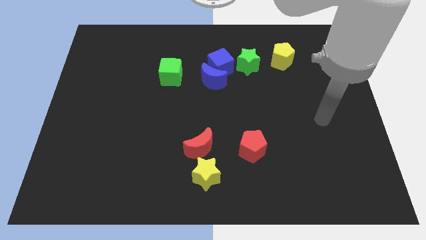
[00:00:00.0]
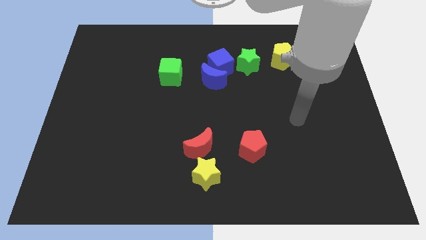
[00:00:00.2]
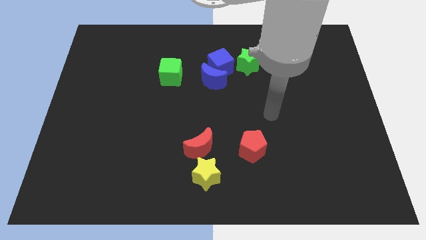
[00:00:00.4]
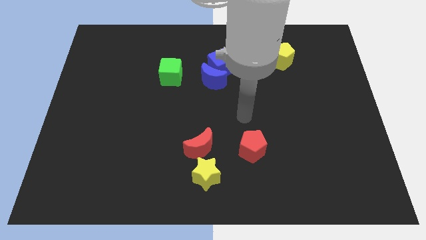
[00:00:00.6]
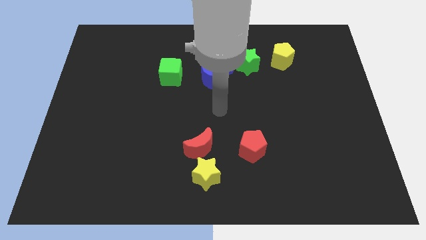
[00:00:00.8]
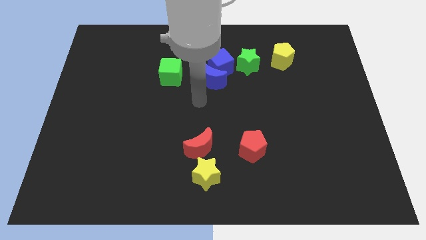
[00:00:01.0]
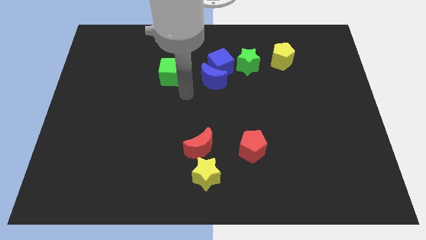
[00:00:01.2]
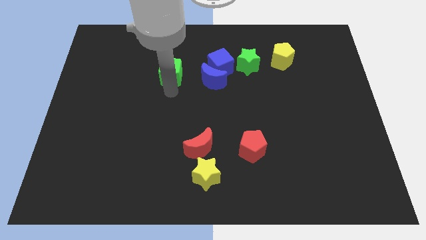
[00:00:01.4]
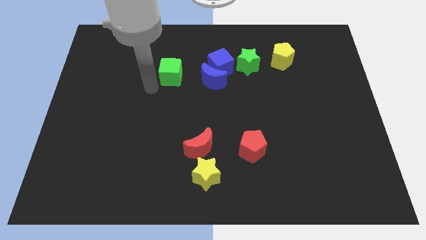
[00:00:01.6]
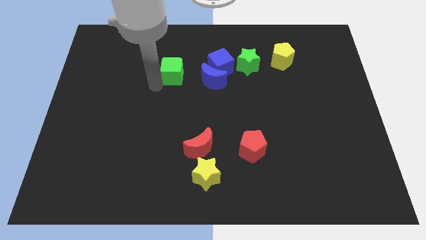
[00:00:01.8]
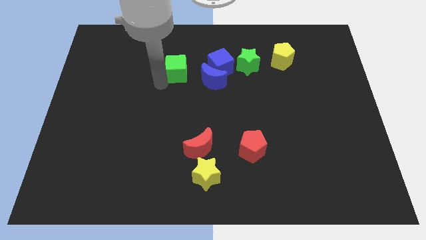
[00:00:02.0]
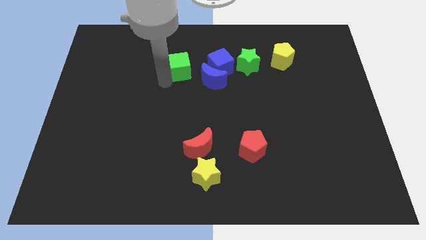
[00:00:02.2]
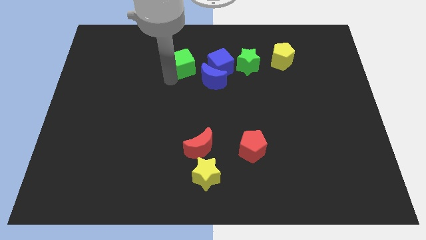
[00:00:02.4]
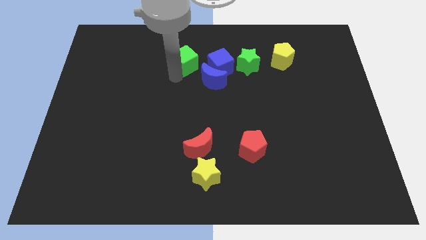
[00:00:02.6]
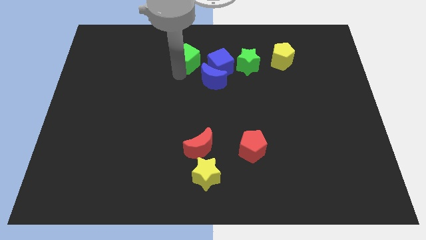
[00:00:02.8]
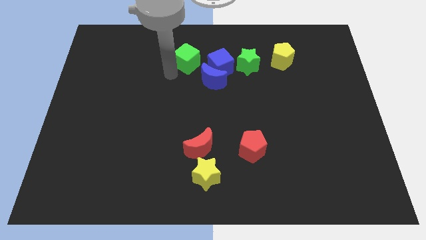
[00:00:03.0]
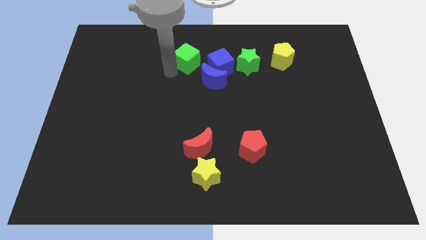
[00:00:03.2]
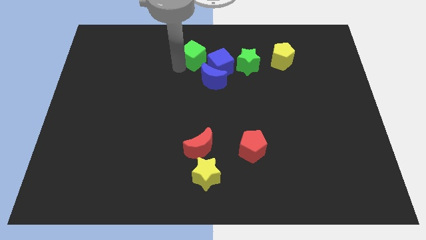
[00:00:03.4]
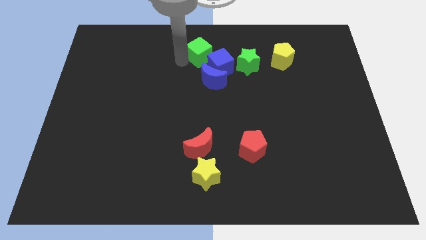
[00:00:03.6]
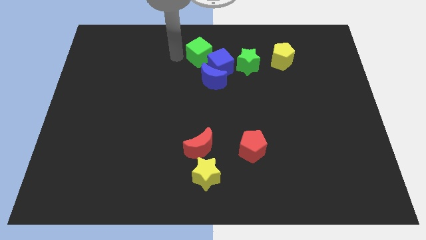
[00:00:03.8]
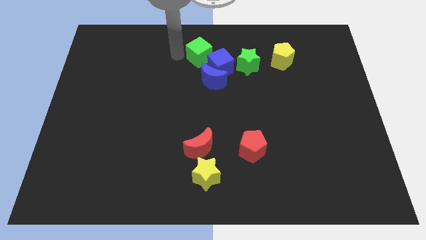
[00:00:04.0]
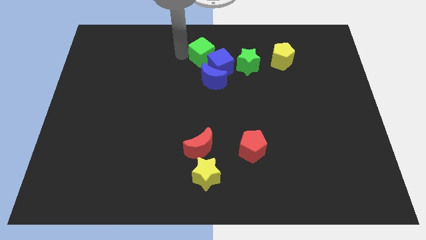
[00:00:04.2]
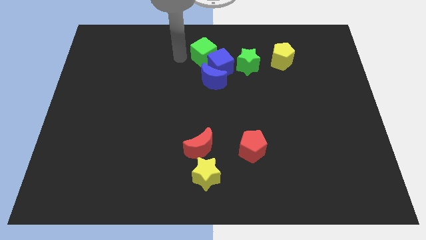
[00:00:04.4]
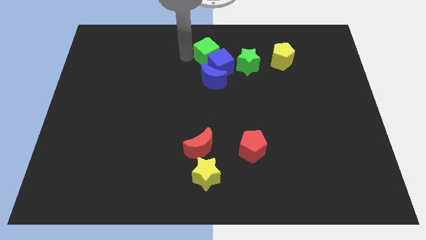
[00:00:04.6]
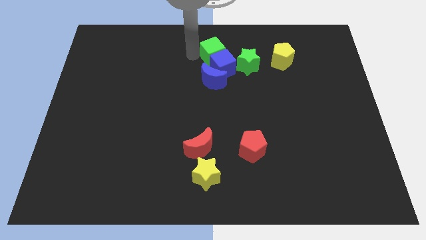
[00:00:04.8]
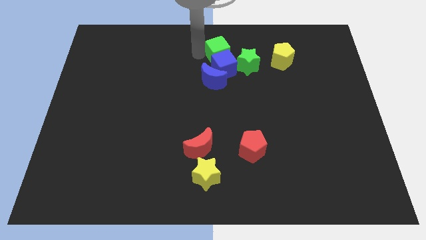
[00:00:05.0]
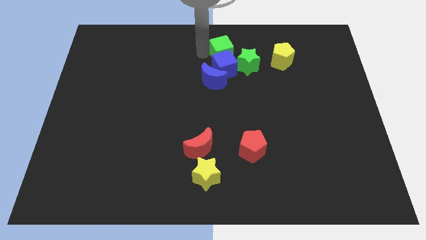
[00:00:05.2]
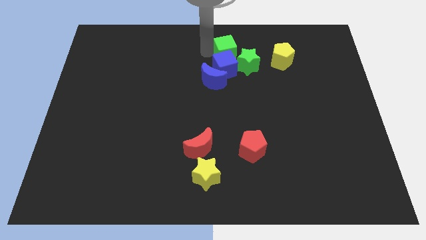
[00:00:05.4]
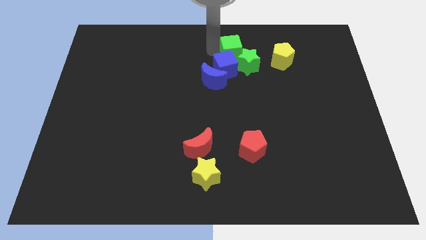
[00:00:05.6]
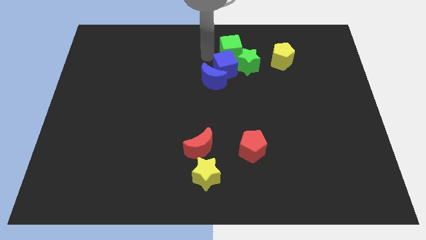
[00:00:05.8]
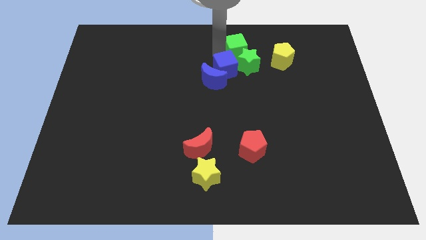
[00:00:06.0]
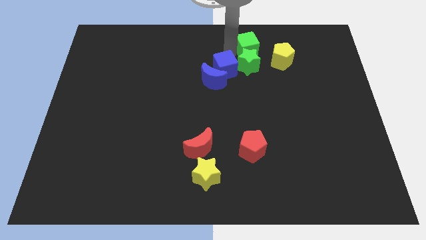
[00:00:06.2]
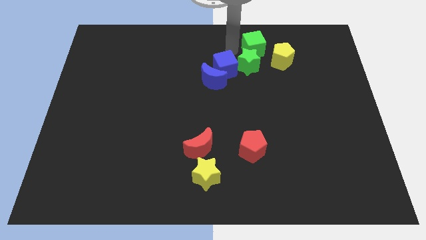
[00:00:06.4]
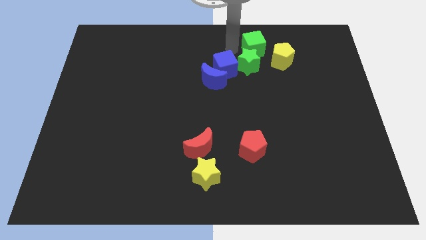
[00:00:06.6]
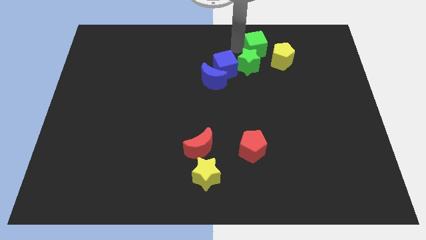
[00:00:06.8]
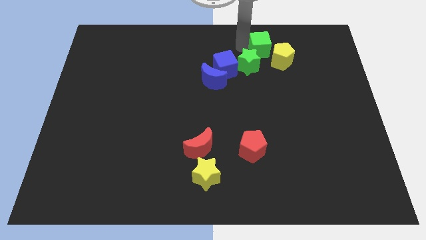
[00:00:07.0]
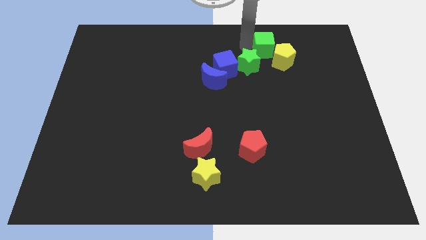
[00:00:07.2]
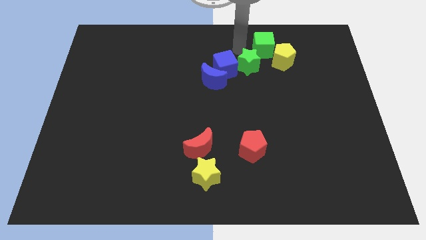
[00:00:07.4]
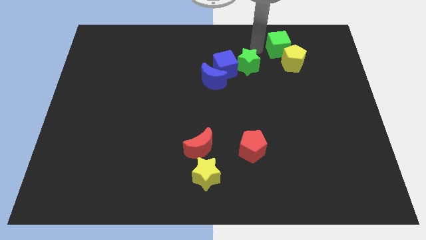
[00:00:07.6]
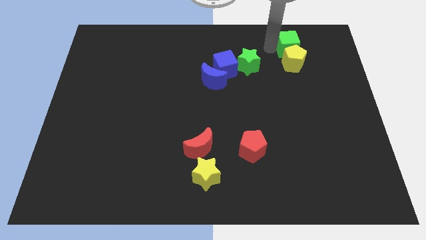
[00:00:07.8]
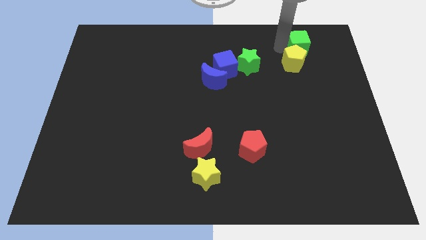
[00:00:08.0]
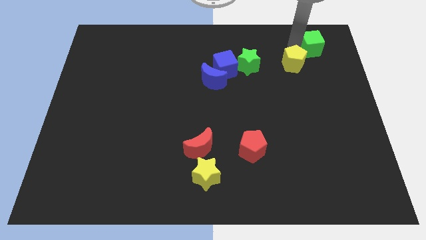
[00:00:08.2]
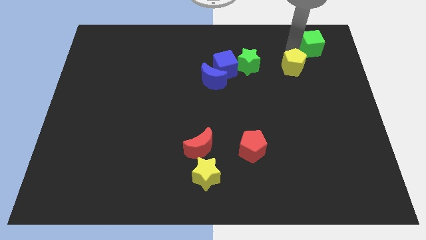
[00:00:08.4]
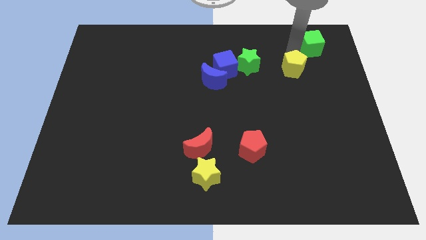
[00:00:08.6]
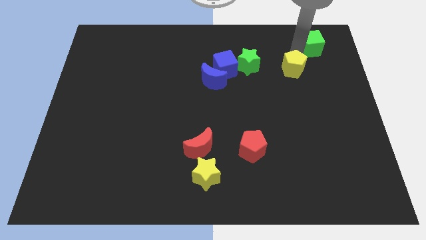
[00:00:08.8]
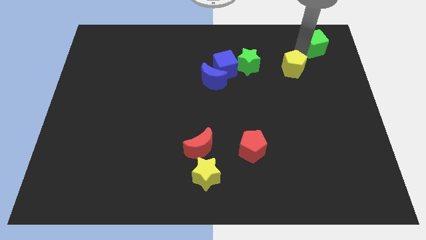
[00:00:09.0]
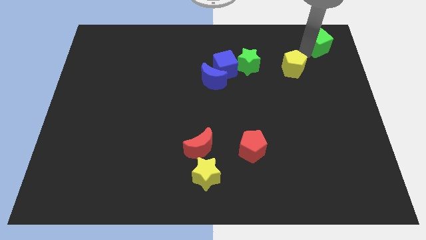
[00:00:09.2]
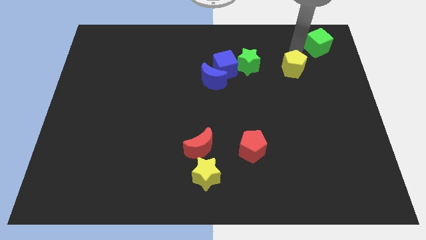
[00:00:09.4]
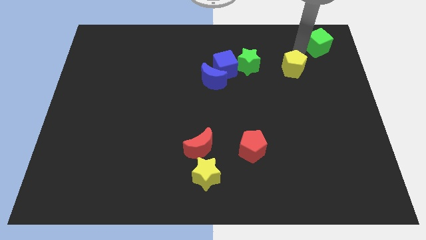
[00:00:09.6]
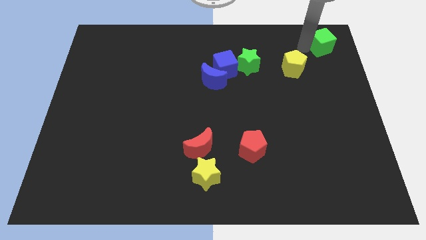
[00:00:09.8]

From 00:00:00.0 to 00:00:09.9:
slide the green cube to the top right

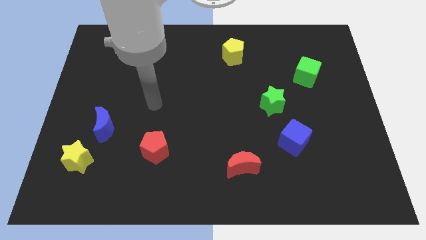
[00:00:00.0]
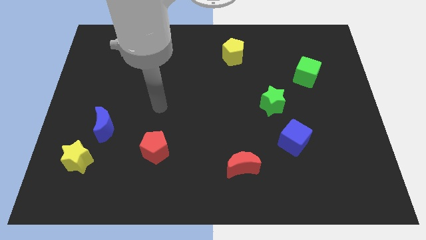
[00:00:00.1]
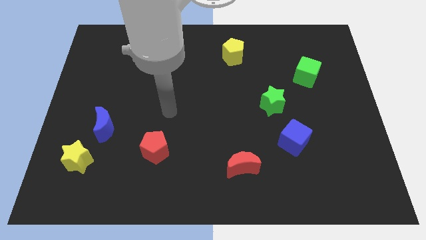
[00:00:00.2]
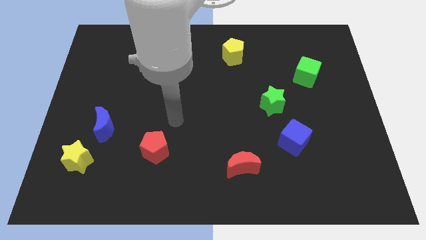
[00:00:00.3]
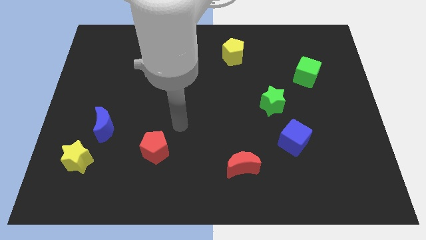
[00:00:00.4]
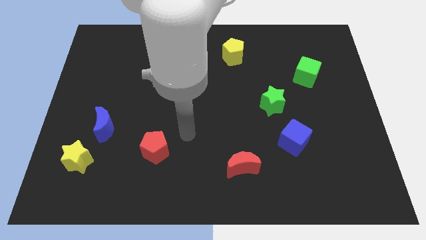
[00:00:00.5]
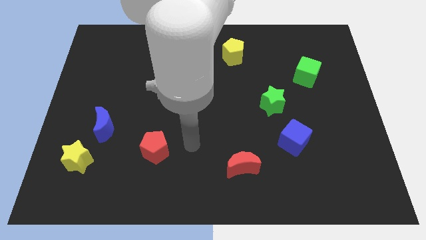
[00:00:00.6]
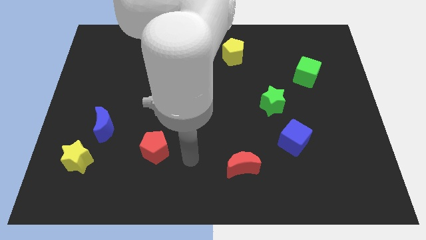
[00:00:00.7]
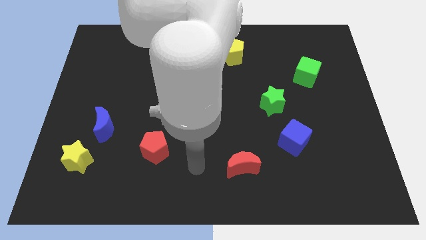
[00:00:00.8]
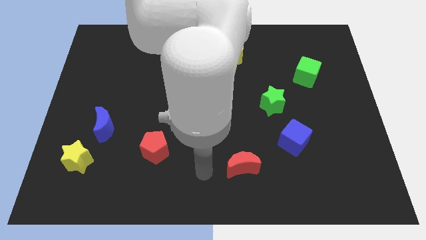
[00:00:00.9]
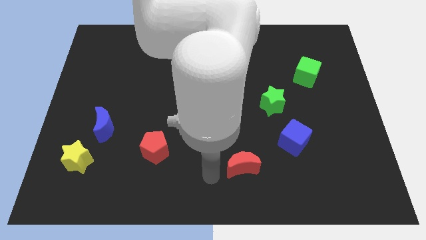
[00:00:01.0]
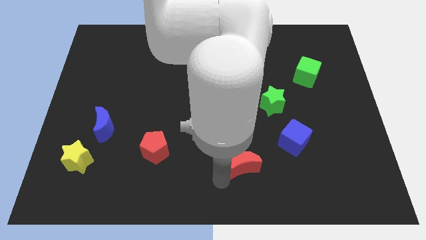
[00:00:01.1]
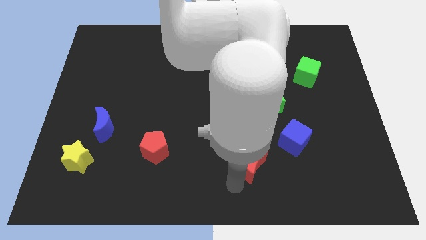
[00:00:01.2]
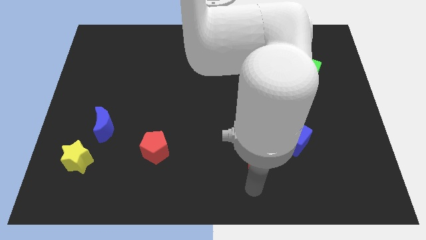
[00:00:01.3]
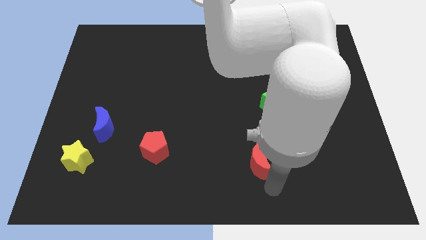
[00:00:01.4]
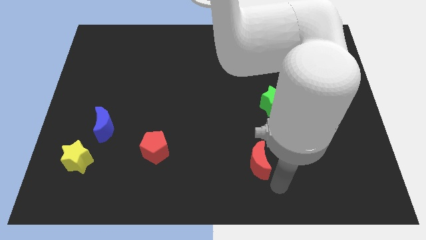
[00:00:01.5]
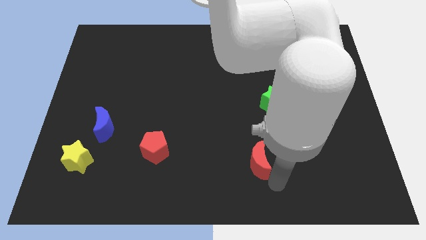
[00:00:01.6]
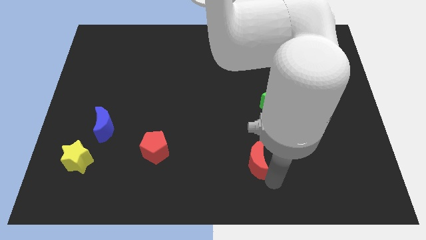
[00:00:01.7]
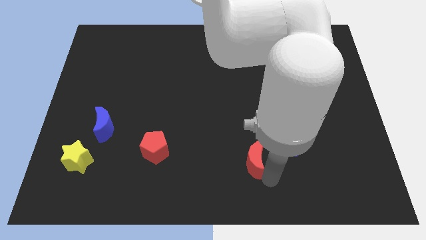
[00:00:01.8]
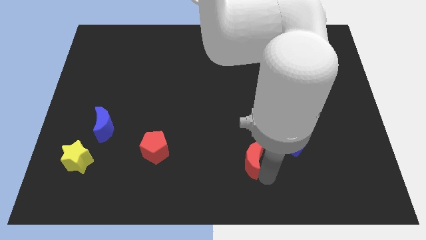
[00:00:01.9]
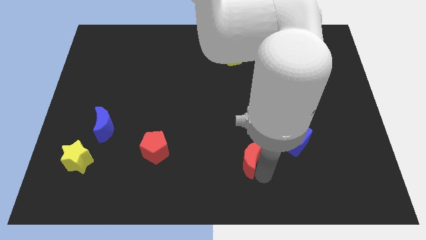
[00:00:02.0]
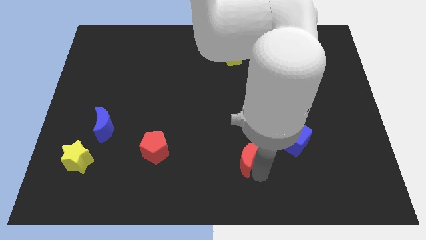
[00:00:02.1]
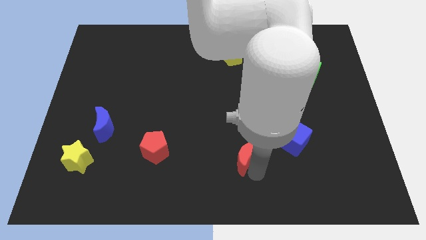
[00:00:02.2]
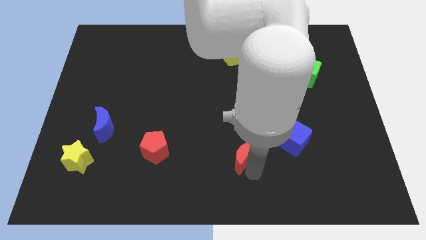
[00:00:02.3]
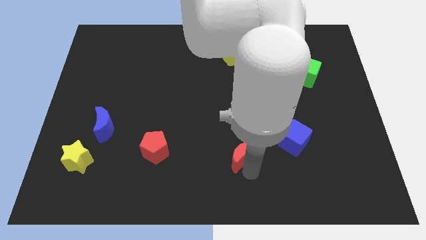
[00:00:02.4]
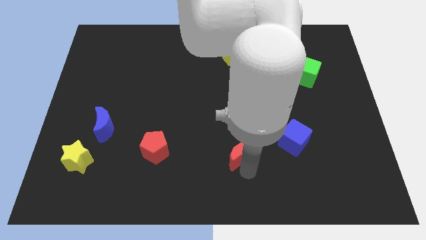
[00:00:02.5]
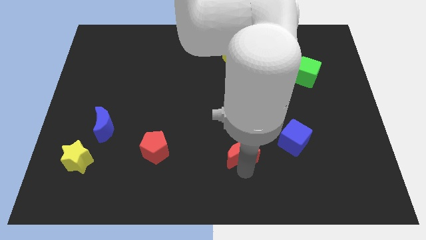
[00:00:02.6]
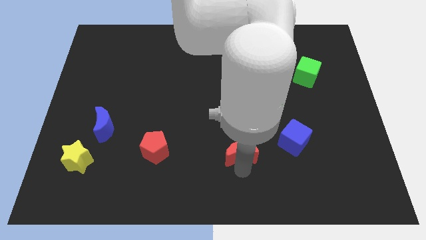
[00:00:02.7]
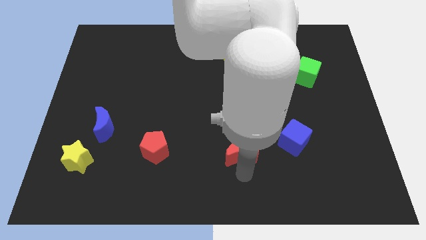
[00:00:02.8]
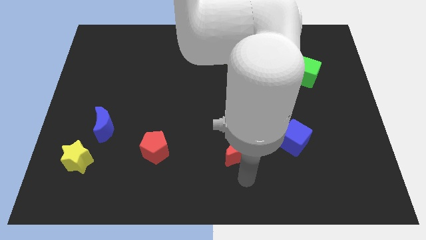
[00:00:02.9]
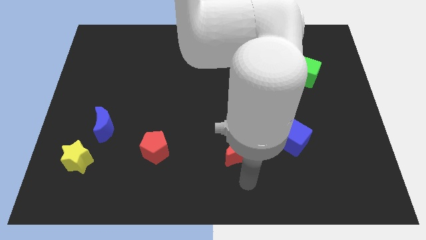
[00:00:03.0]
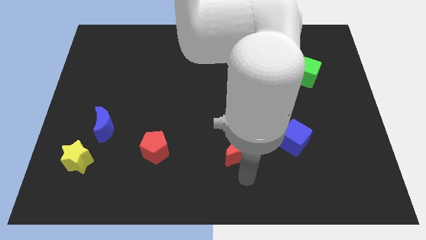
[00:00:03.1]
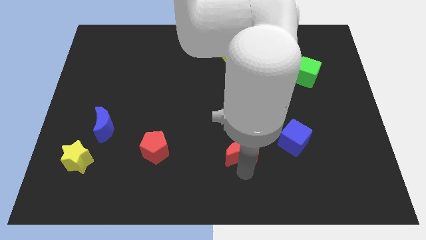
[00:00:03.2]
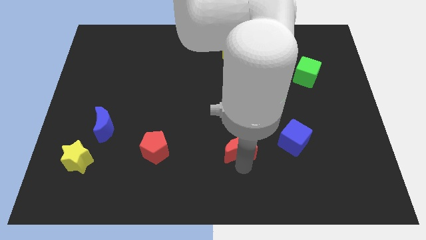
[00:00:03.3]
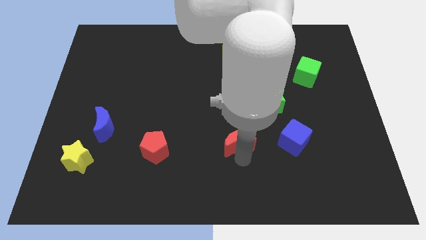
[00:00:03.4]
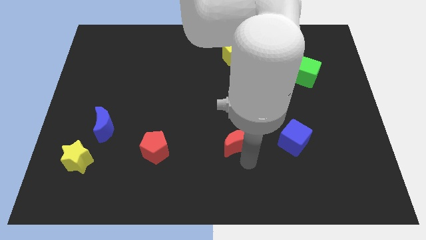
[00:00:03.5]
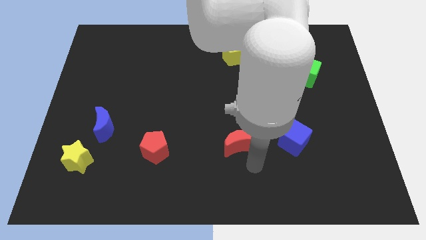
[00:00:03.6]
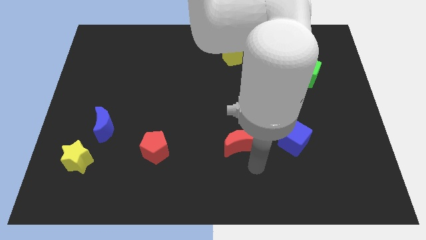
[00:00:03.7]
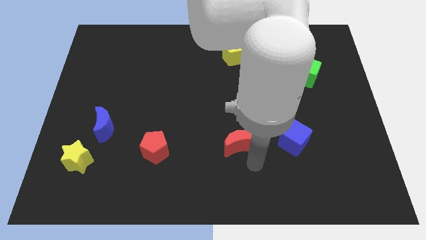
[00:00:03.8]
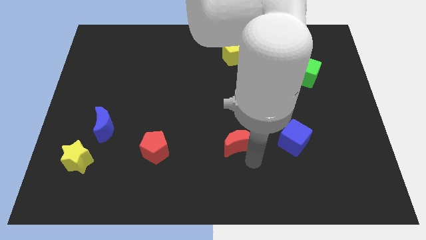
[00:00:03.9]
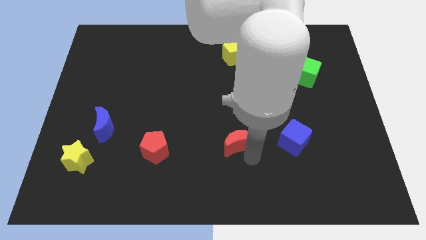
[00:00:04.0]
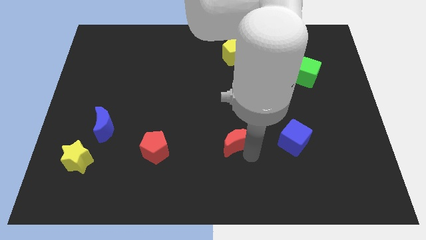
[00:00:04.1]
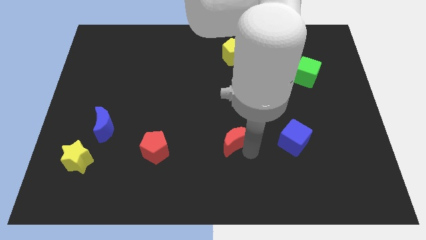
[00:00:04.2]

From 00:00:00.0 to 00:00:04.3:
slide the red moon to the center of the board
